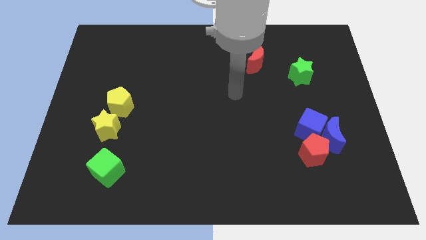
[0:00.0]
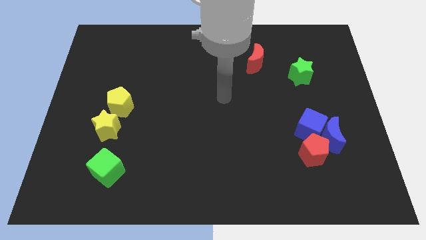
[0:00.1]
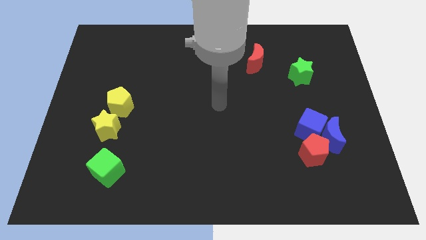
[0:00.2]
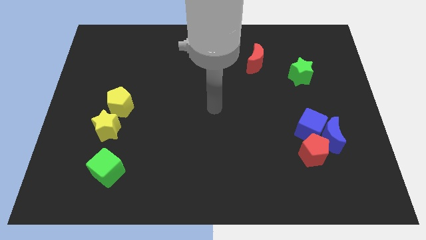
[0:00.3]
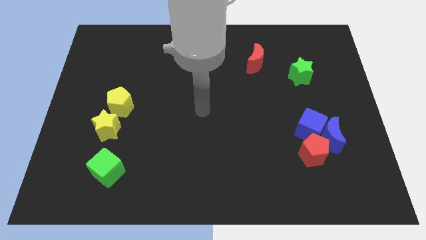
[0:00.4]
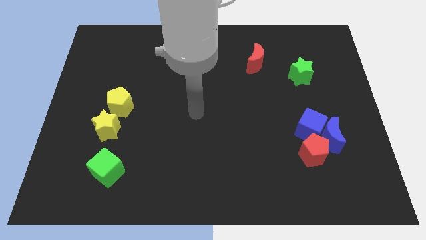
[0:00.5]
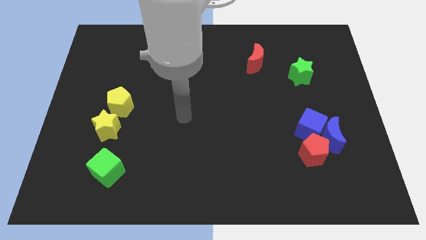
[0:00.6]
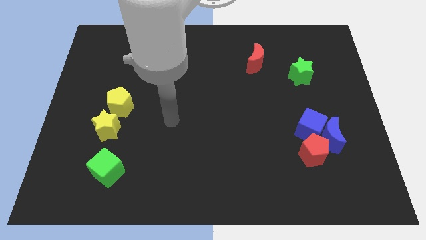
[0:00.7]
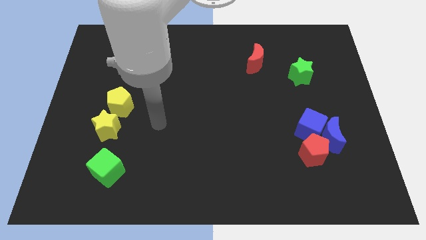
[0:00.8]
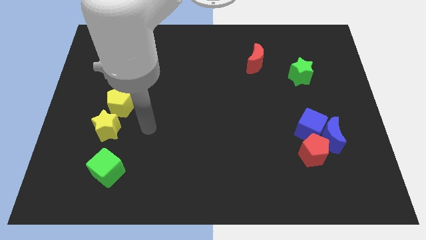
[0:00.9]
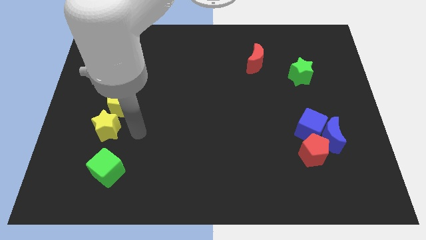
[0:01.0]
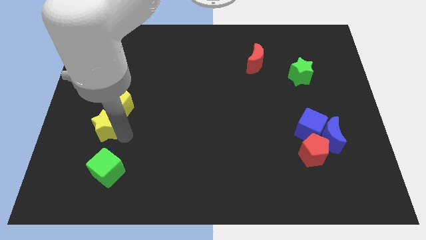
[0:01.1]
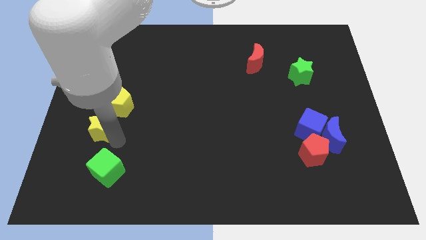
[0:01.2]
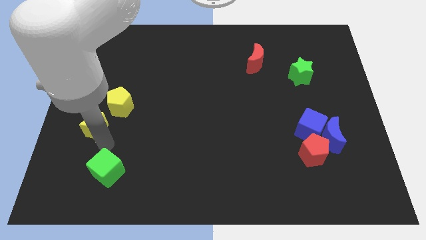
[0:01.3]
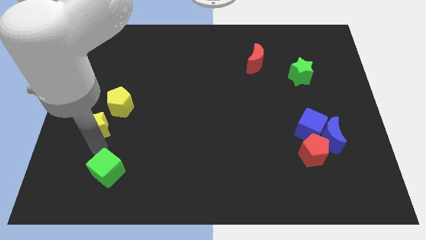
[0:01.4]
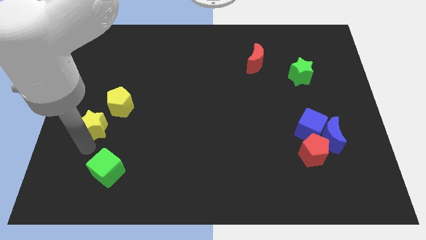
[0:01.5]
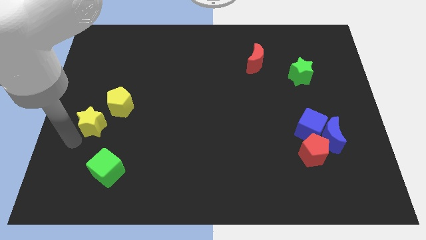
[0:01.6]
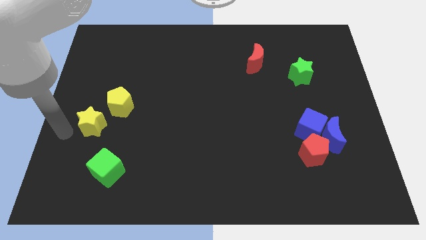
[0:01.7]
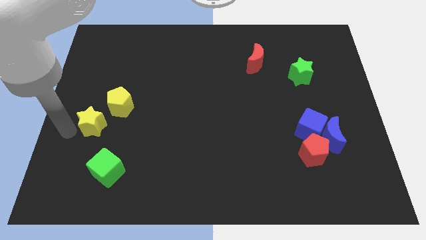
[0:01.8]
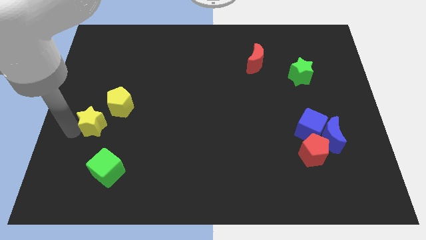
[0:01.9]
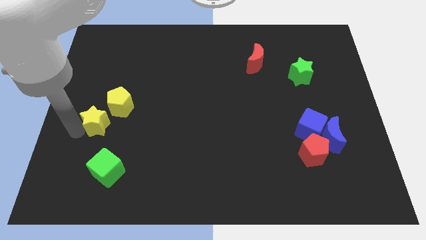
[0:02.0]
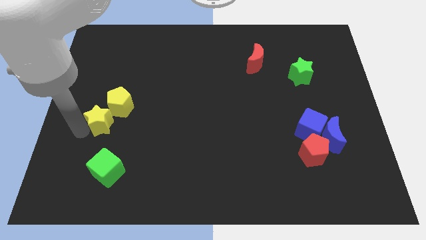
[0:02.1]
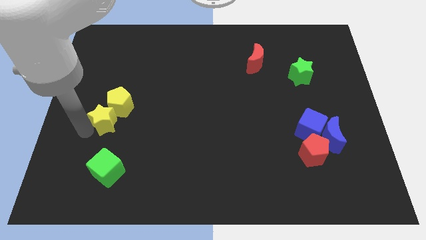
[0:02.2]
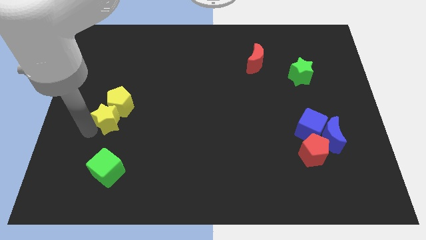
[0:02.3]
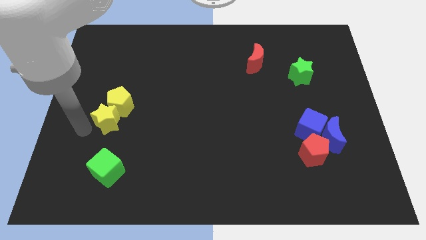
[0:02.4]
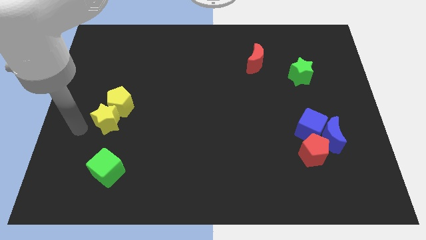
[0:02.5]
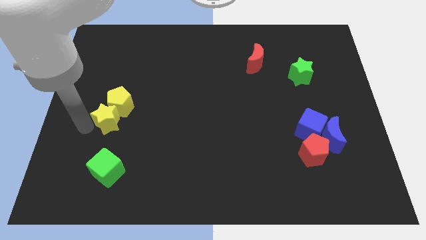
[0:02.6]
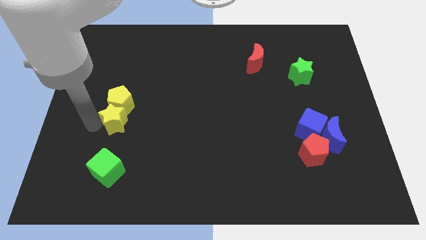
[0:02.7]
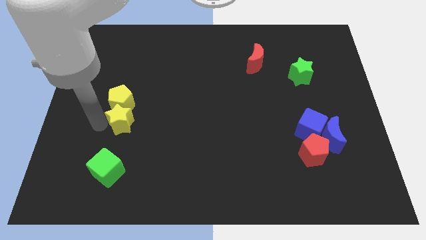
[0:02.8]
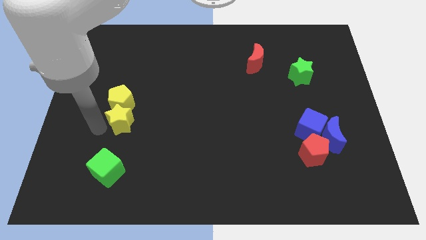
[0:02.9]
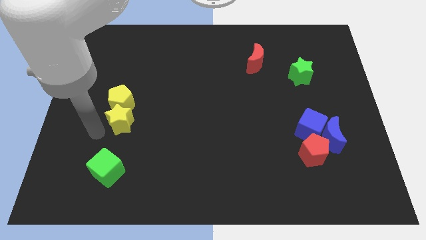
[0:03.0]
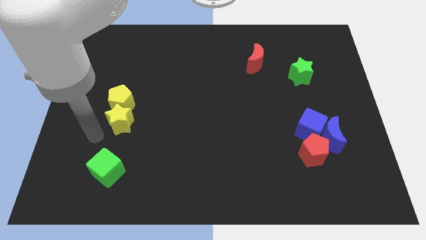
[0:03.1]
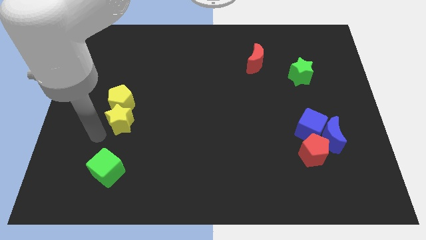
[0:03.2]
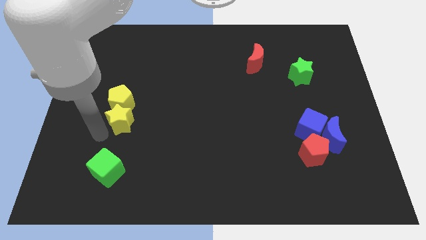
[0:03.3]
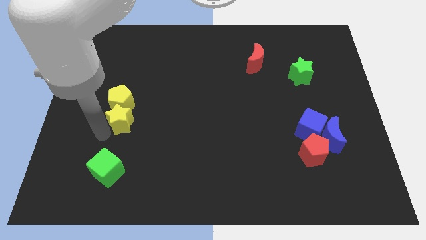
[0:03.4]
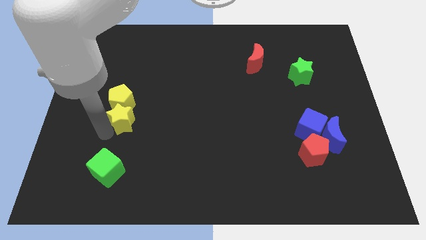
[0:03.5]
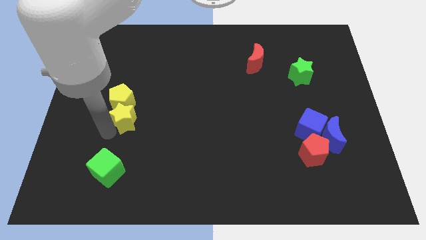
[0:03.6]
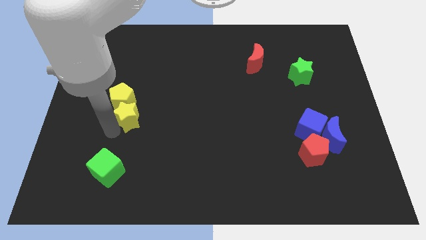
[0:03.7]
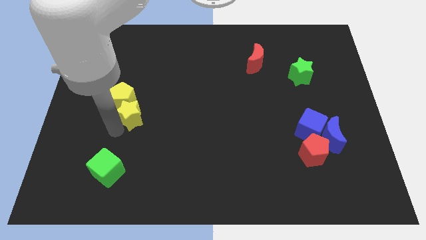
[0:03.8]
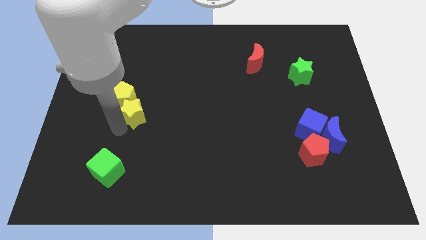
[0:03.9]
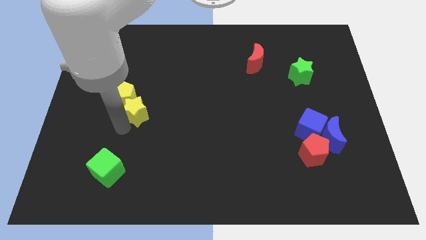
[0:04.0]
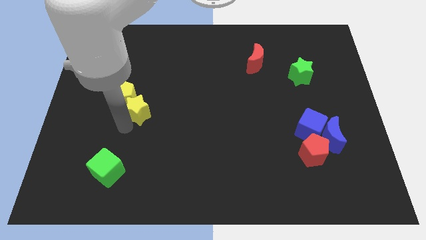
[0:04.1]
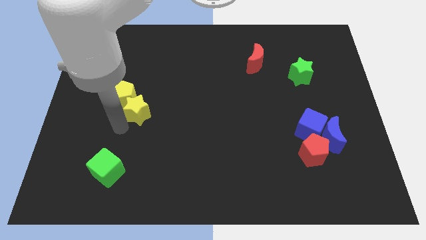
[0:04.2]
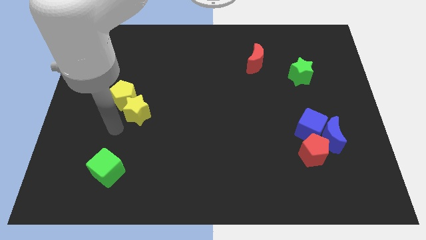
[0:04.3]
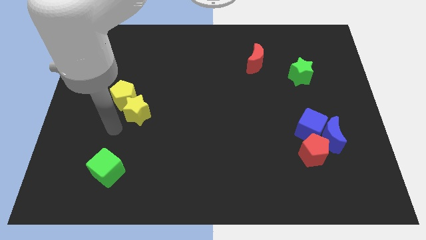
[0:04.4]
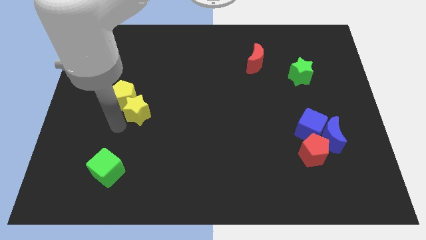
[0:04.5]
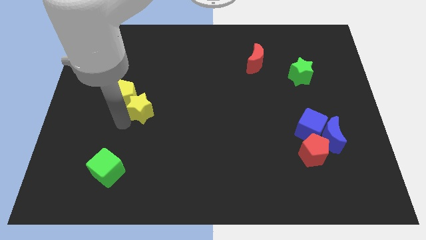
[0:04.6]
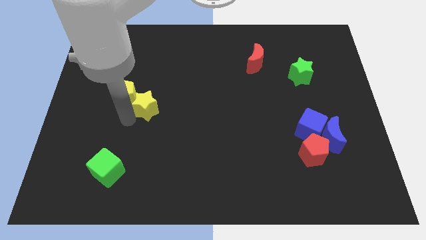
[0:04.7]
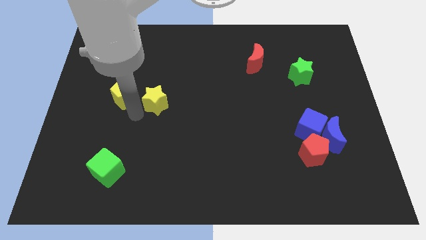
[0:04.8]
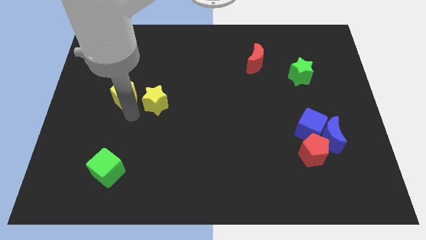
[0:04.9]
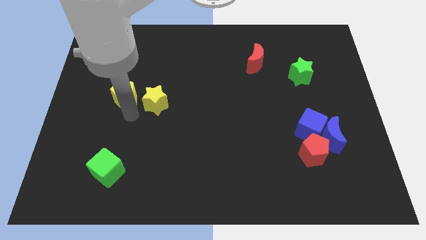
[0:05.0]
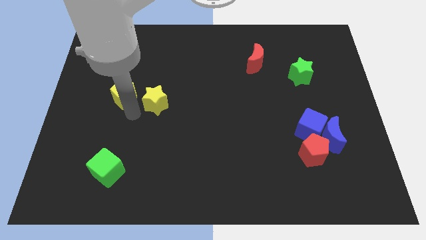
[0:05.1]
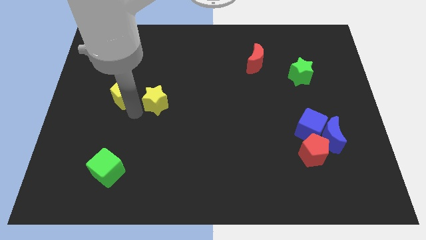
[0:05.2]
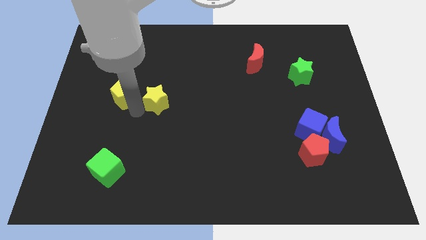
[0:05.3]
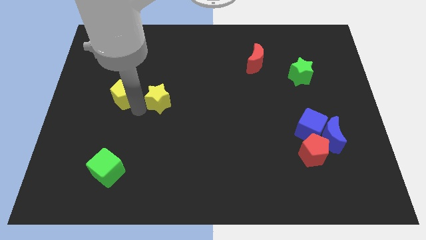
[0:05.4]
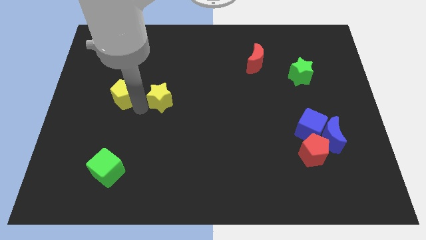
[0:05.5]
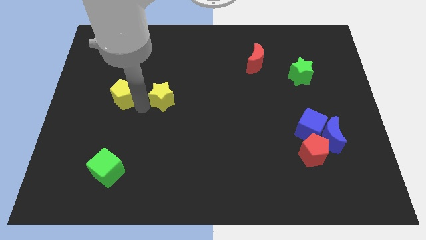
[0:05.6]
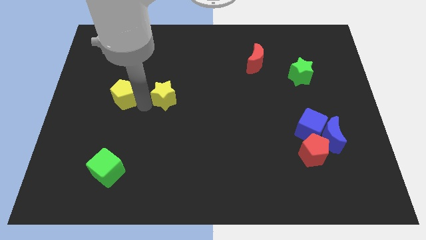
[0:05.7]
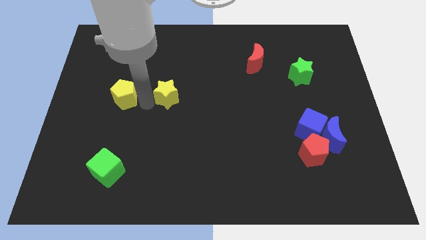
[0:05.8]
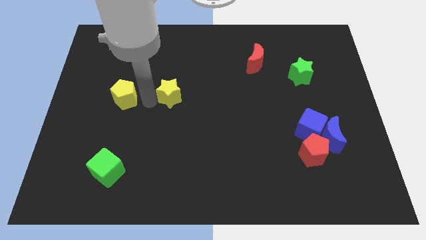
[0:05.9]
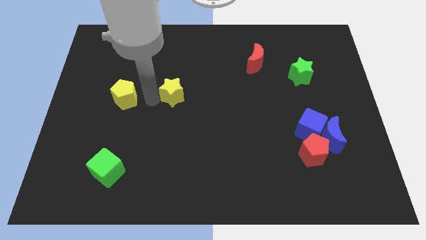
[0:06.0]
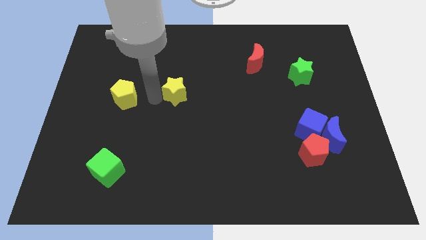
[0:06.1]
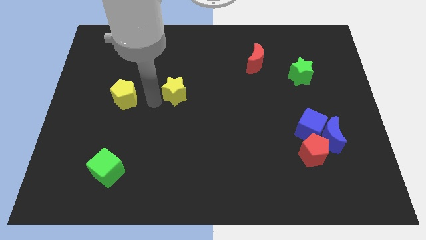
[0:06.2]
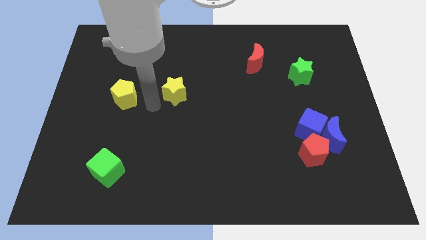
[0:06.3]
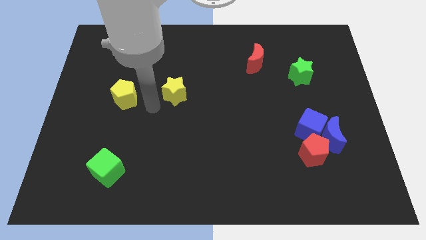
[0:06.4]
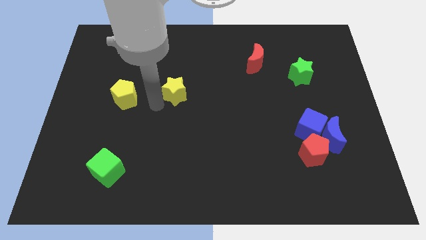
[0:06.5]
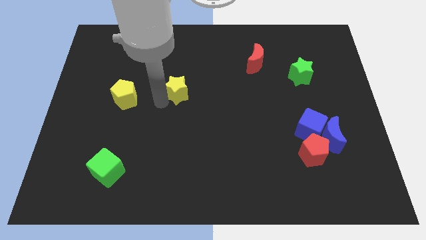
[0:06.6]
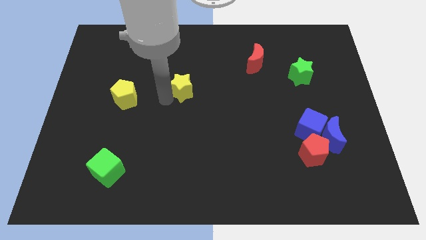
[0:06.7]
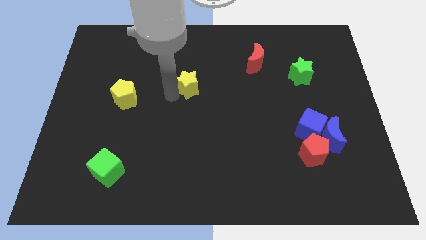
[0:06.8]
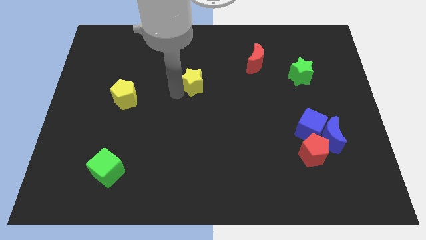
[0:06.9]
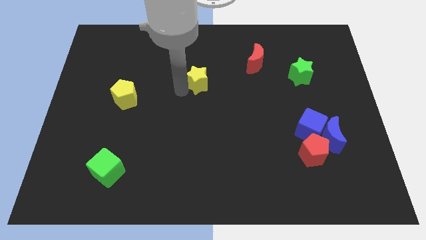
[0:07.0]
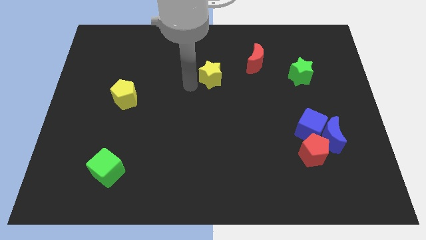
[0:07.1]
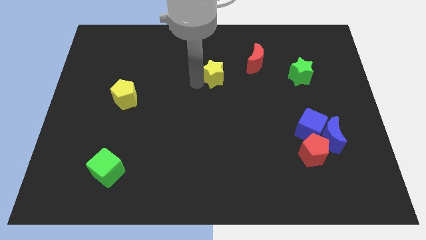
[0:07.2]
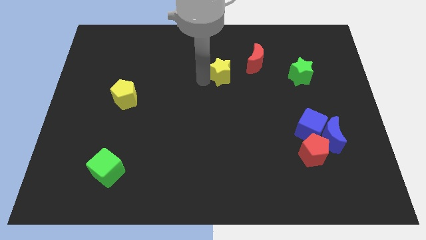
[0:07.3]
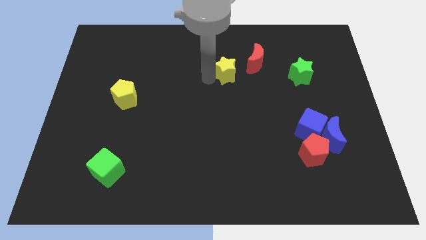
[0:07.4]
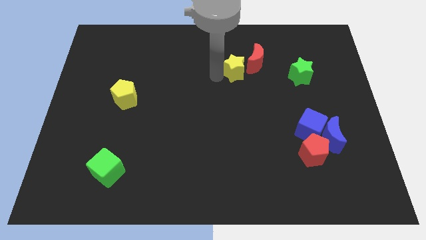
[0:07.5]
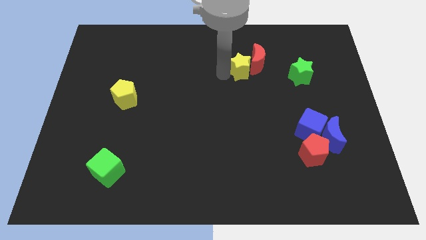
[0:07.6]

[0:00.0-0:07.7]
put the yellow star next to the red moon
